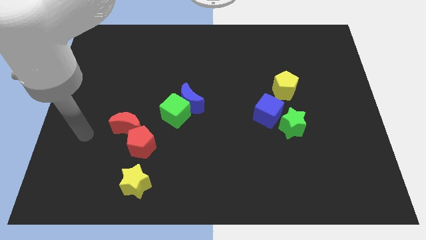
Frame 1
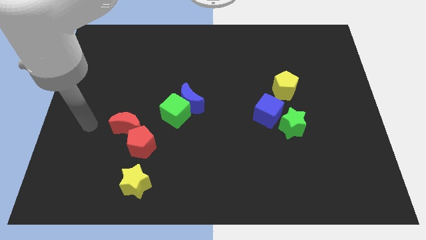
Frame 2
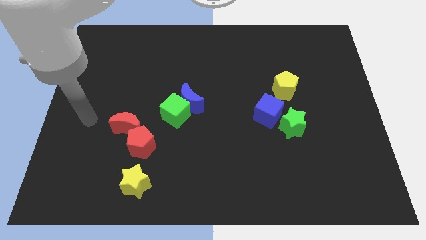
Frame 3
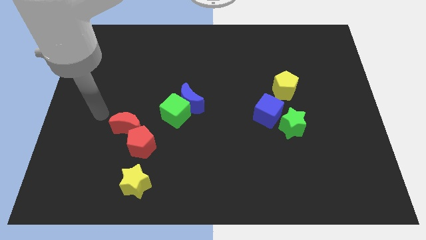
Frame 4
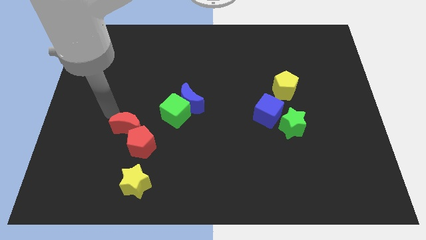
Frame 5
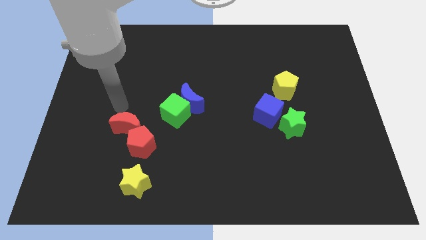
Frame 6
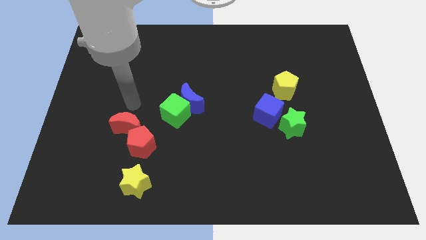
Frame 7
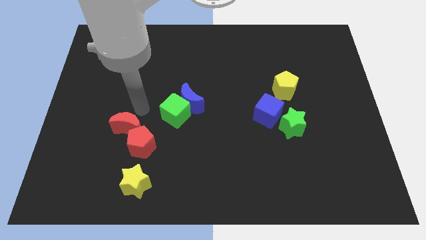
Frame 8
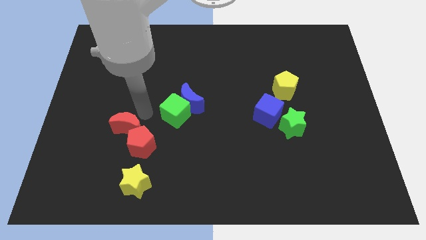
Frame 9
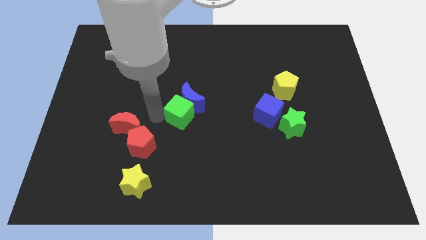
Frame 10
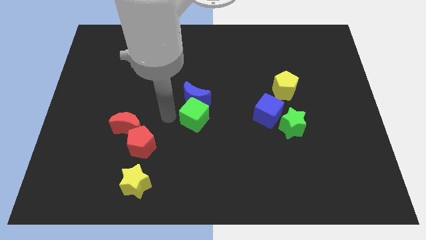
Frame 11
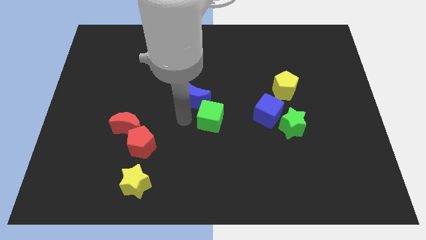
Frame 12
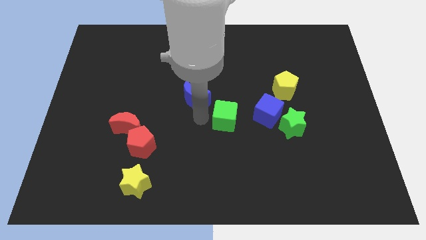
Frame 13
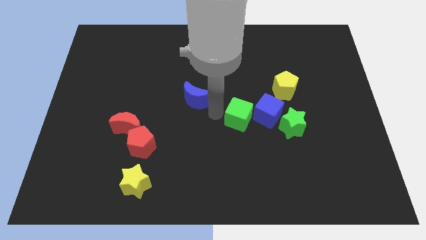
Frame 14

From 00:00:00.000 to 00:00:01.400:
move the blue moon away from the green cube

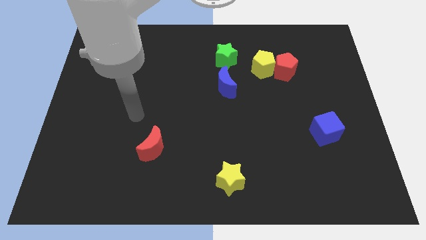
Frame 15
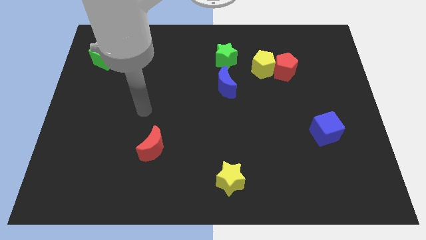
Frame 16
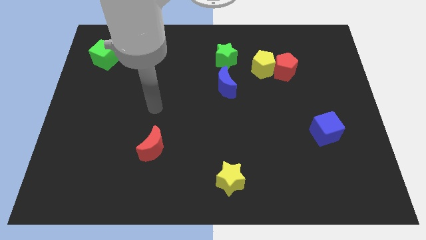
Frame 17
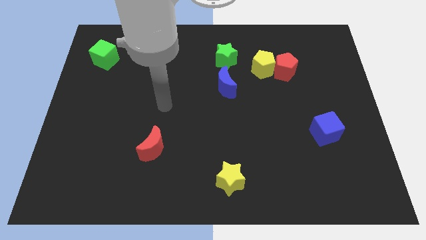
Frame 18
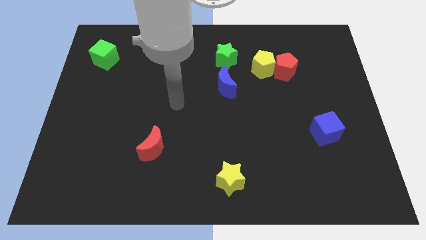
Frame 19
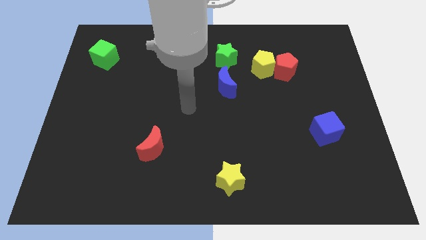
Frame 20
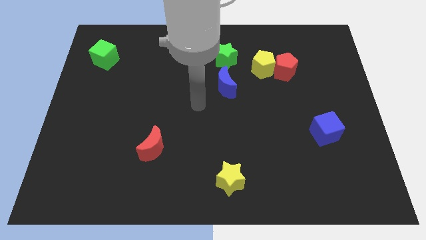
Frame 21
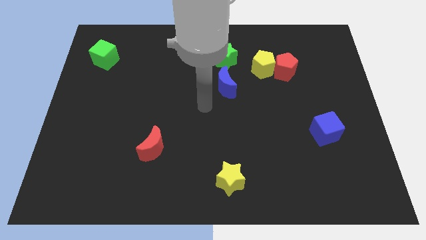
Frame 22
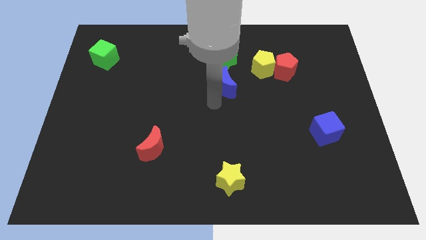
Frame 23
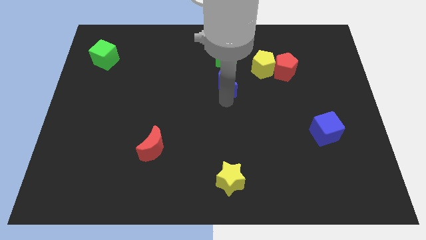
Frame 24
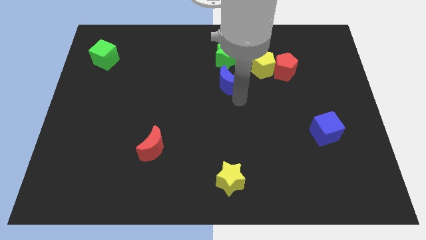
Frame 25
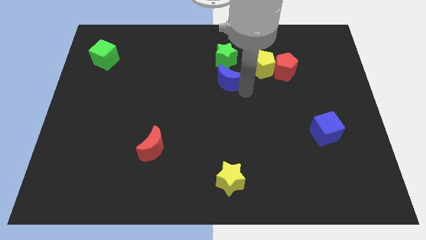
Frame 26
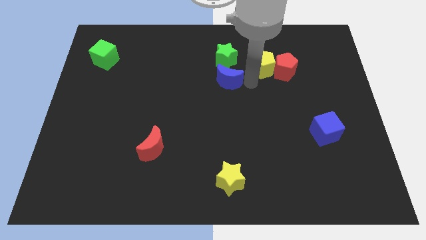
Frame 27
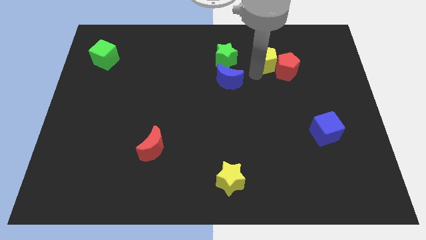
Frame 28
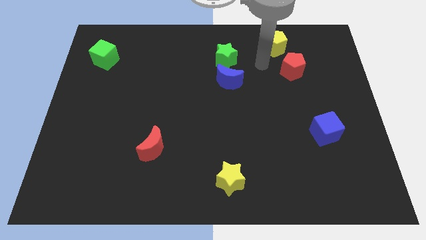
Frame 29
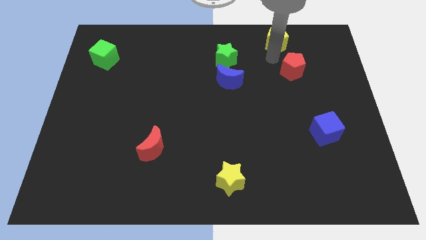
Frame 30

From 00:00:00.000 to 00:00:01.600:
pull the red pentagon apart from the yellow pentagon

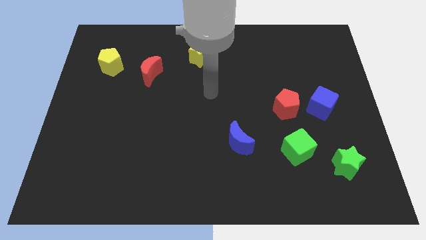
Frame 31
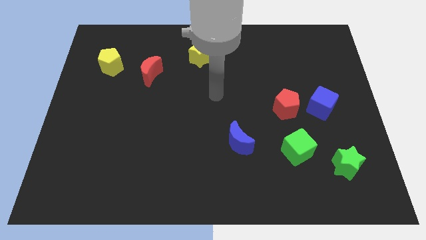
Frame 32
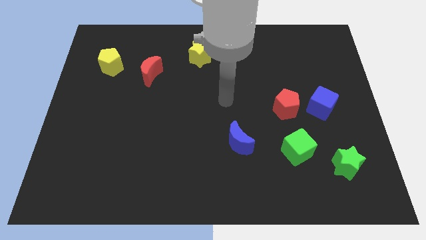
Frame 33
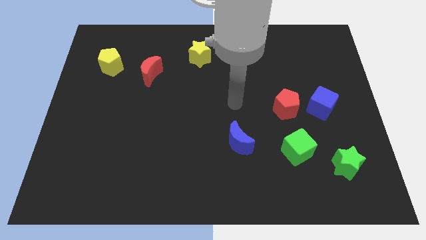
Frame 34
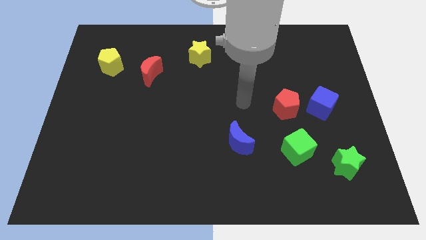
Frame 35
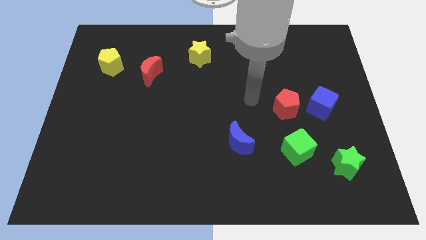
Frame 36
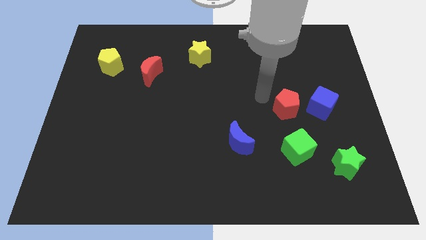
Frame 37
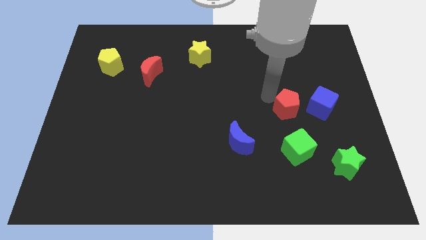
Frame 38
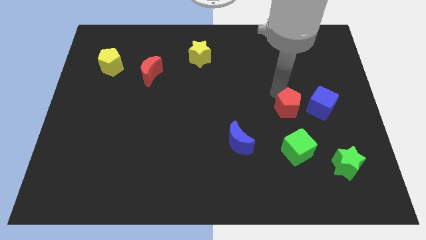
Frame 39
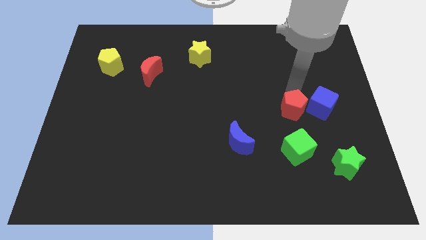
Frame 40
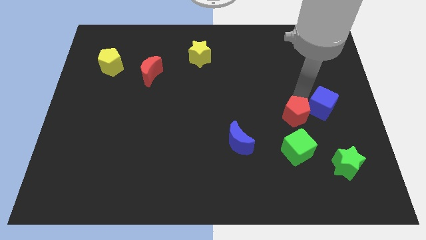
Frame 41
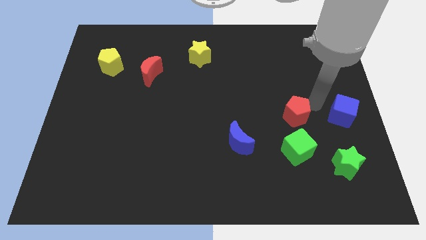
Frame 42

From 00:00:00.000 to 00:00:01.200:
separate the red pentagon from the blue cube

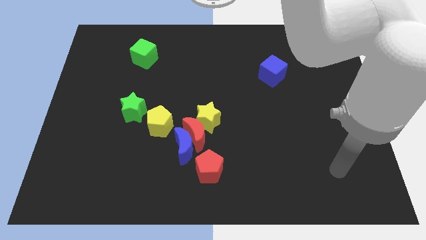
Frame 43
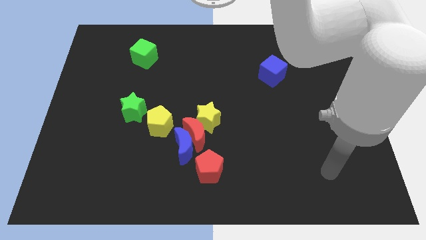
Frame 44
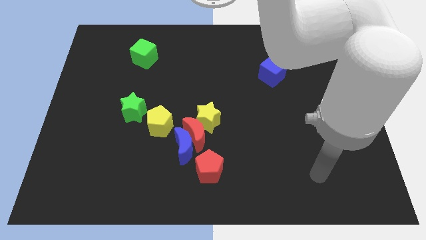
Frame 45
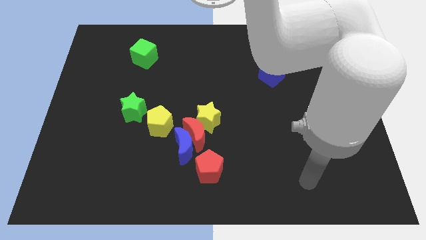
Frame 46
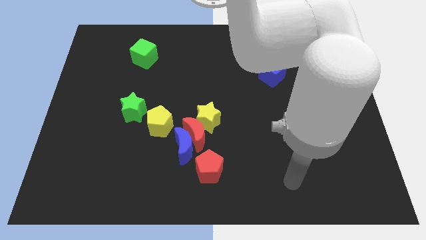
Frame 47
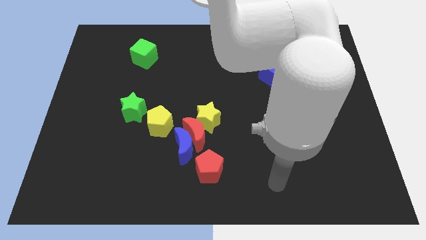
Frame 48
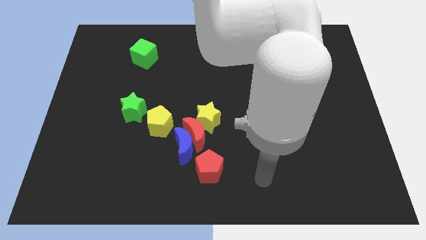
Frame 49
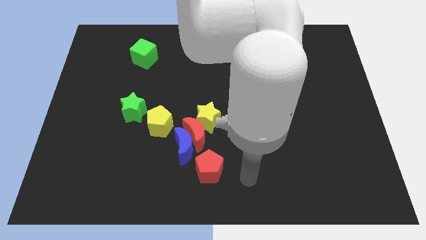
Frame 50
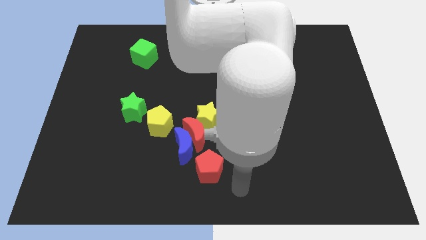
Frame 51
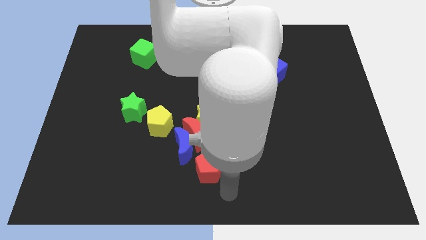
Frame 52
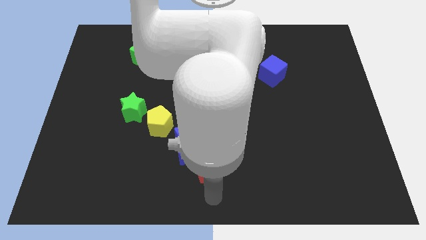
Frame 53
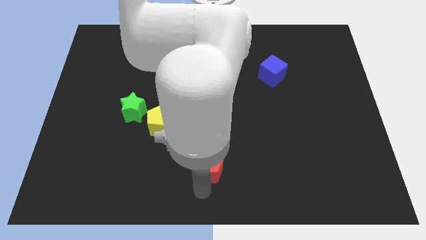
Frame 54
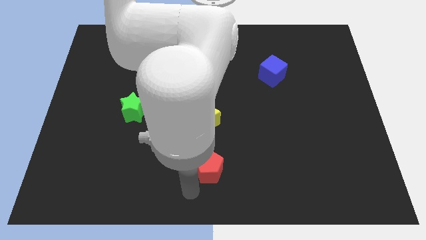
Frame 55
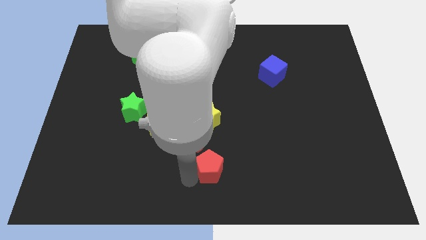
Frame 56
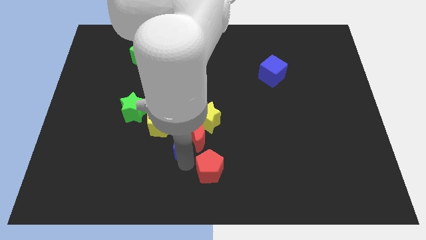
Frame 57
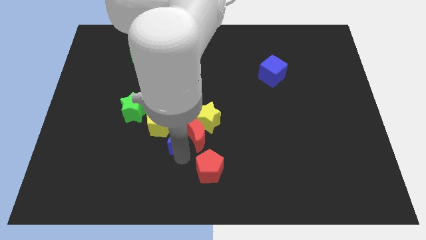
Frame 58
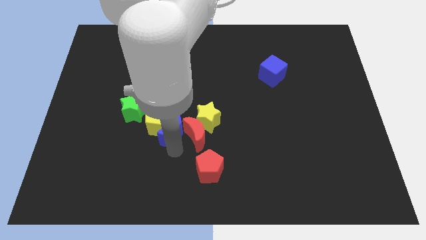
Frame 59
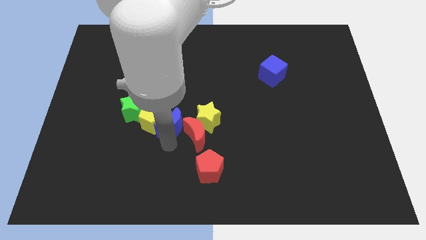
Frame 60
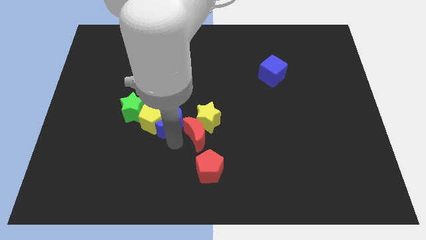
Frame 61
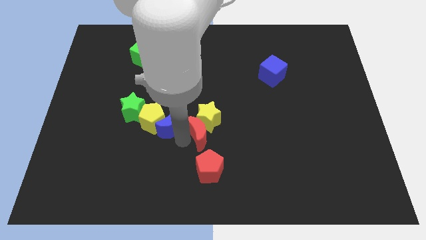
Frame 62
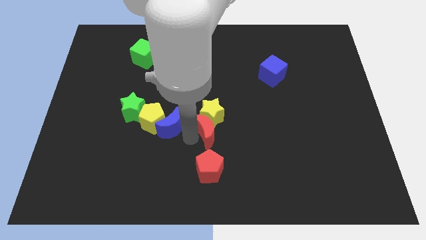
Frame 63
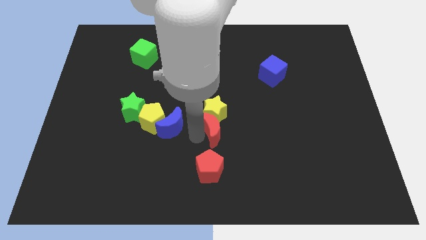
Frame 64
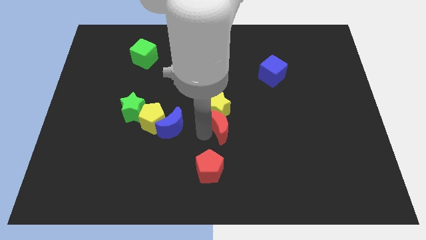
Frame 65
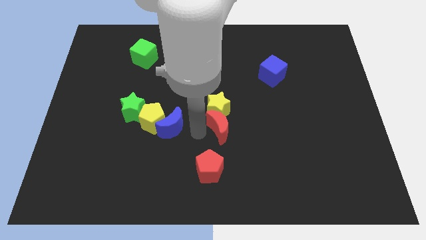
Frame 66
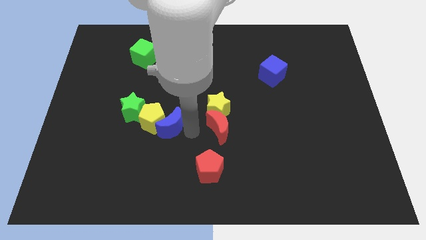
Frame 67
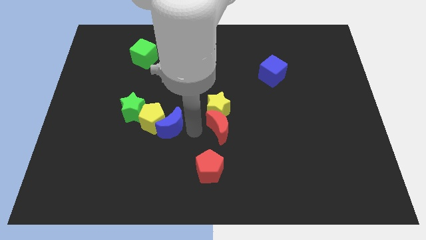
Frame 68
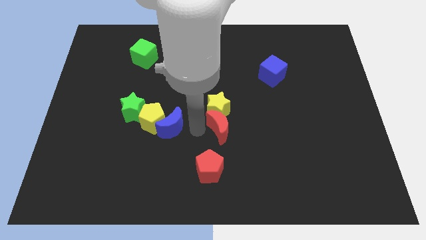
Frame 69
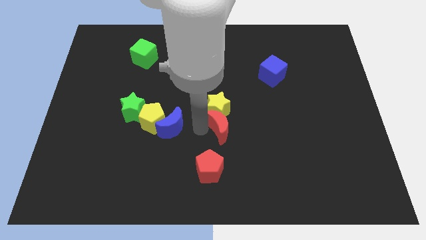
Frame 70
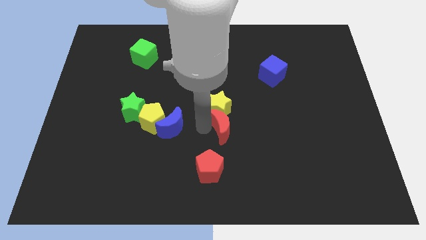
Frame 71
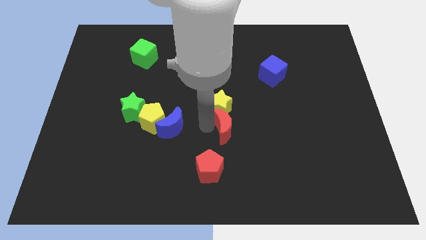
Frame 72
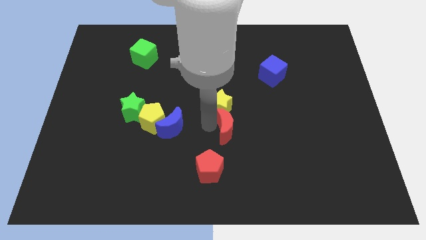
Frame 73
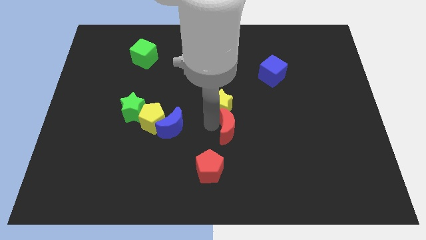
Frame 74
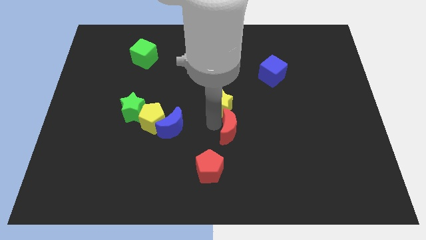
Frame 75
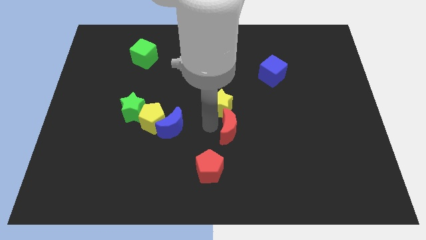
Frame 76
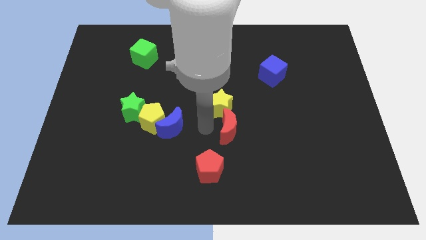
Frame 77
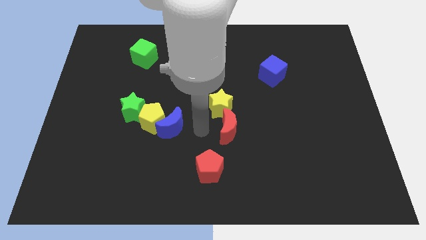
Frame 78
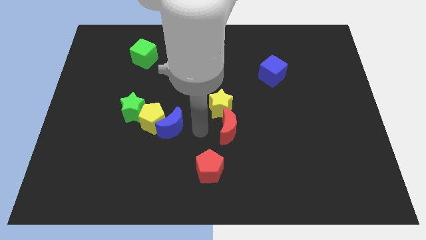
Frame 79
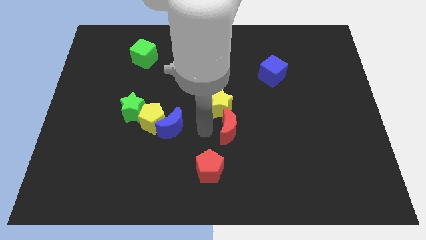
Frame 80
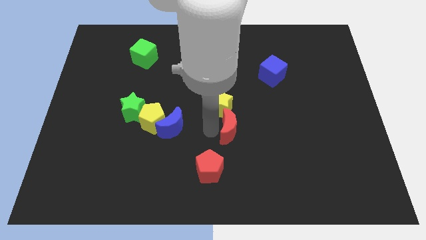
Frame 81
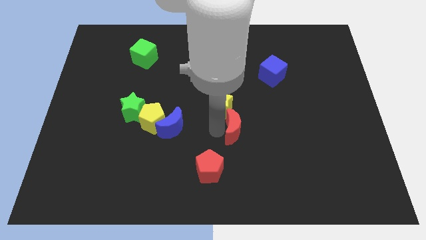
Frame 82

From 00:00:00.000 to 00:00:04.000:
pull the red moon apart from the group

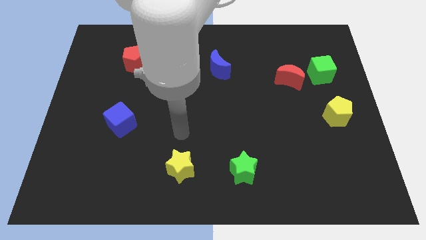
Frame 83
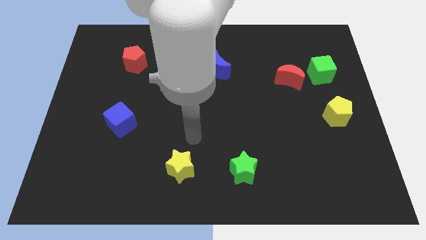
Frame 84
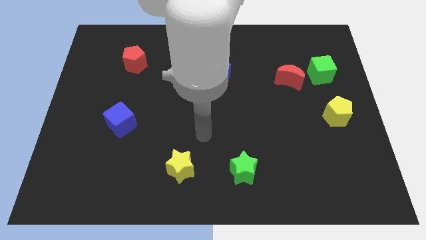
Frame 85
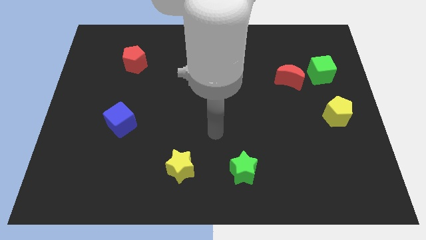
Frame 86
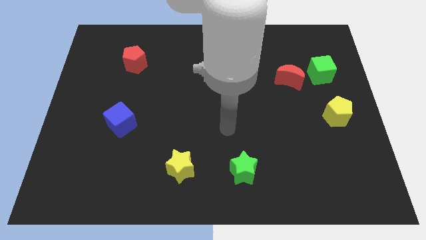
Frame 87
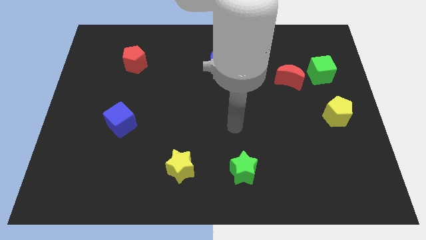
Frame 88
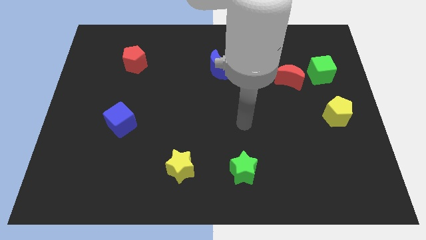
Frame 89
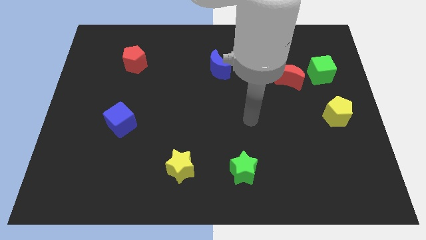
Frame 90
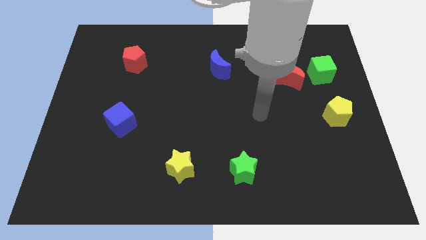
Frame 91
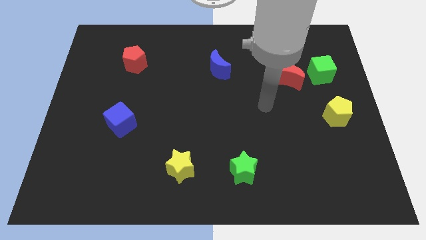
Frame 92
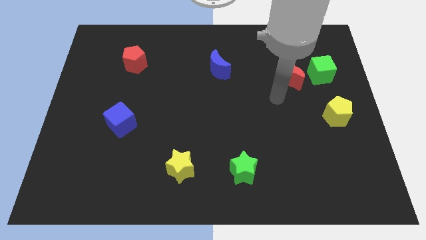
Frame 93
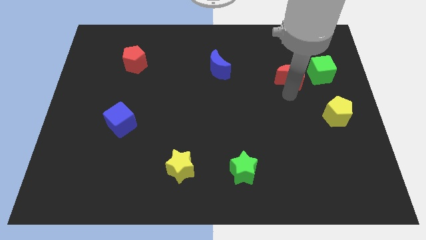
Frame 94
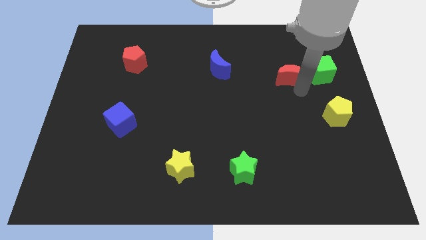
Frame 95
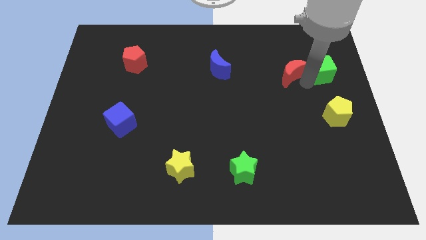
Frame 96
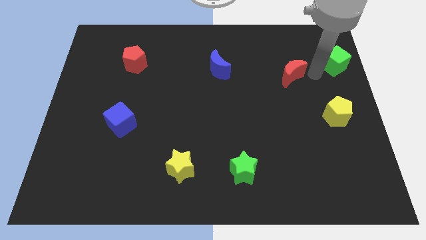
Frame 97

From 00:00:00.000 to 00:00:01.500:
separate the red moon from the green cube
